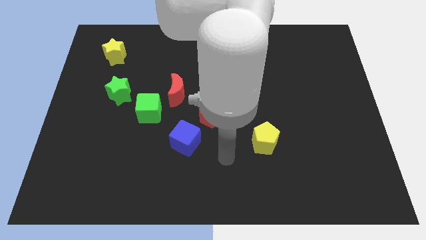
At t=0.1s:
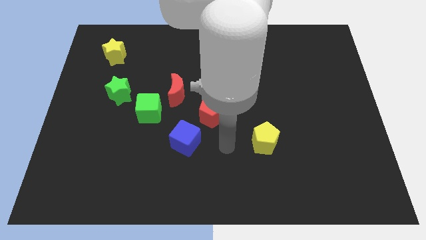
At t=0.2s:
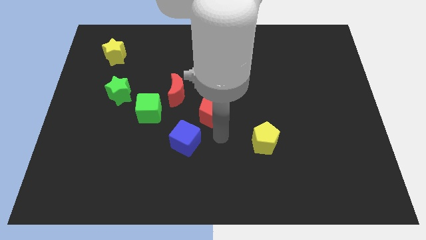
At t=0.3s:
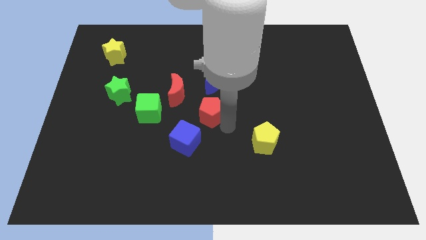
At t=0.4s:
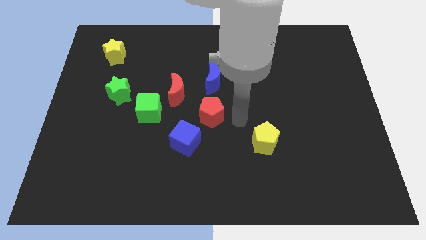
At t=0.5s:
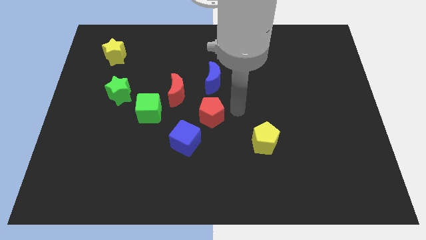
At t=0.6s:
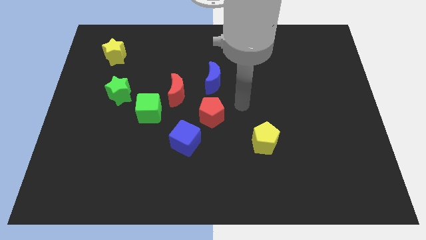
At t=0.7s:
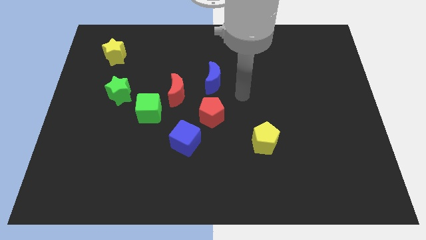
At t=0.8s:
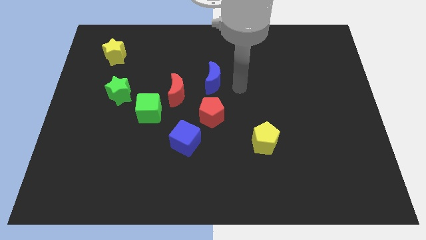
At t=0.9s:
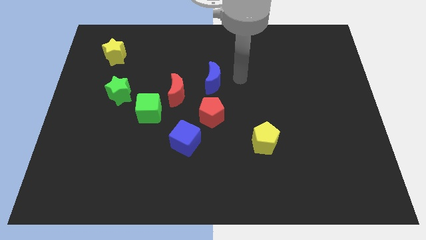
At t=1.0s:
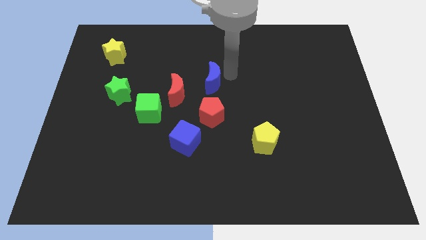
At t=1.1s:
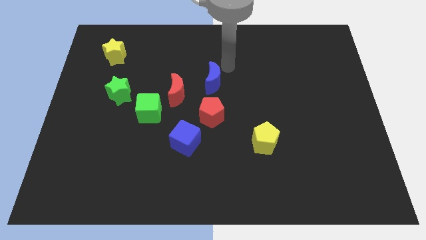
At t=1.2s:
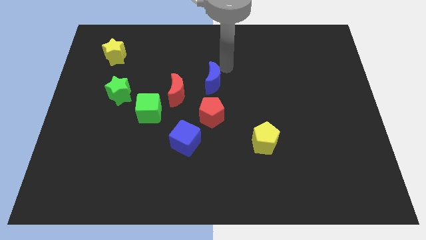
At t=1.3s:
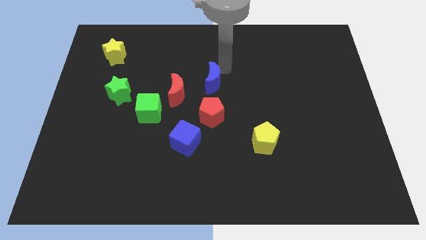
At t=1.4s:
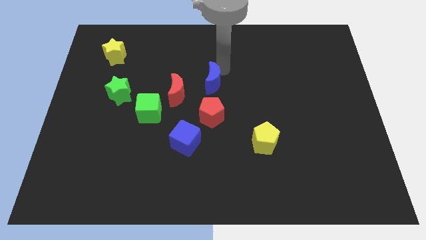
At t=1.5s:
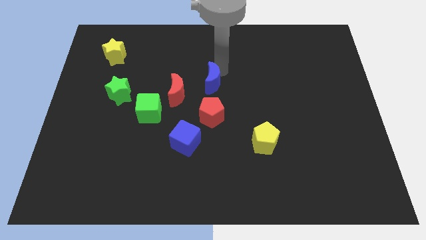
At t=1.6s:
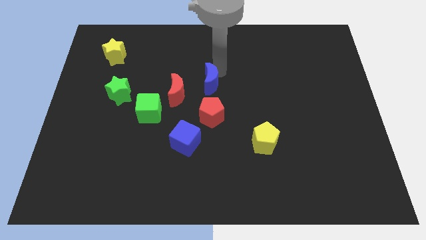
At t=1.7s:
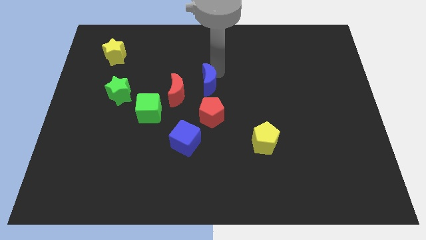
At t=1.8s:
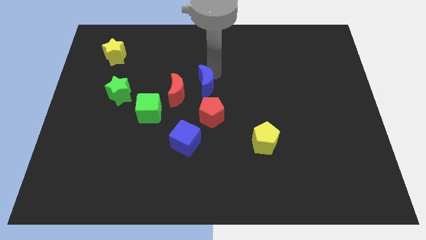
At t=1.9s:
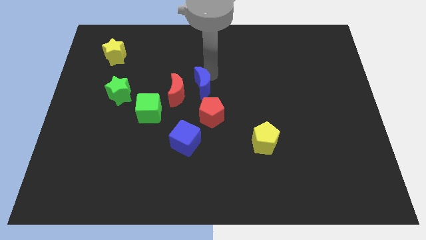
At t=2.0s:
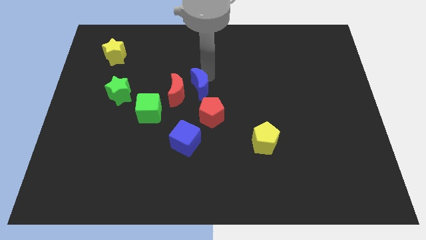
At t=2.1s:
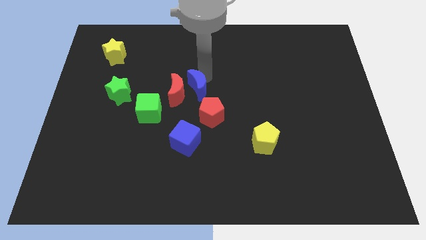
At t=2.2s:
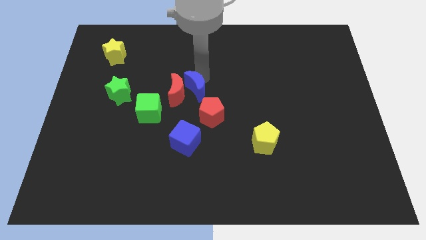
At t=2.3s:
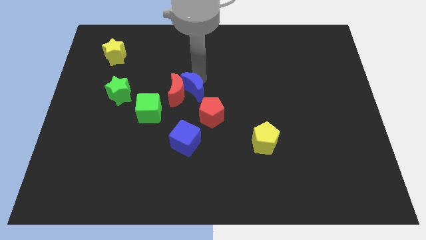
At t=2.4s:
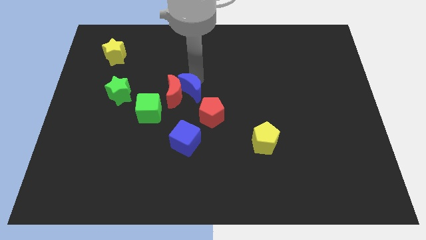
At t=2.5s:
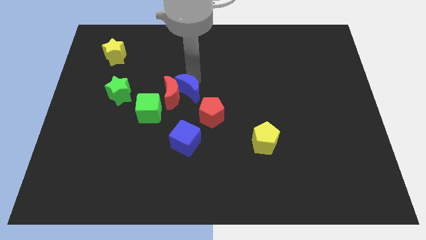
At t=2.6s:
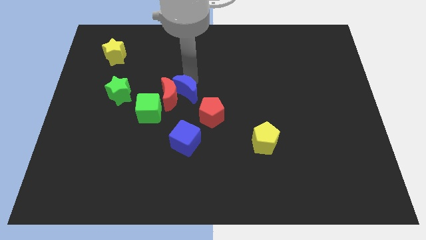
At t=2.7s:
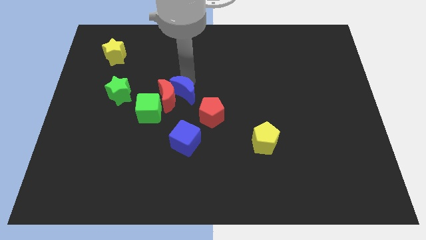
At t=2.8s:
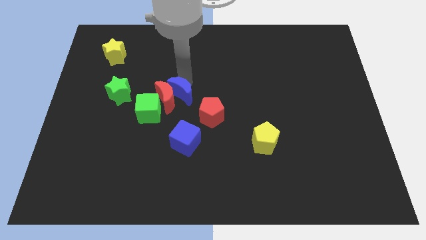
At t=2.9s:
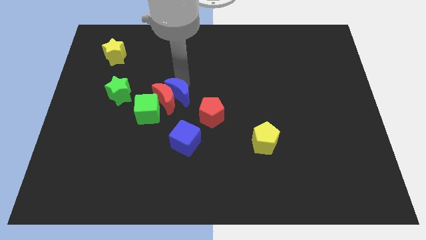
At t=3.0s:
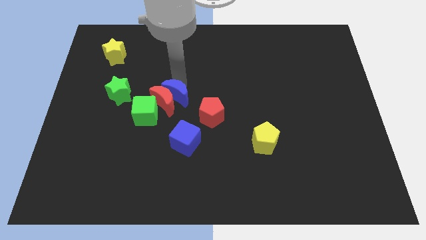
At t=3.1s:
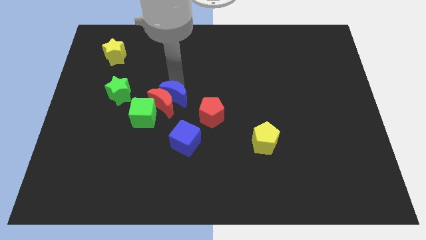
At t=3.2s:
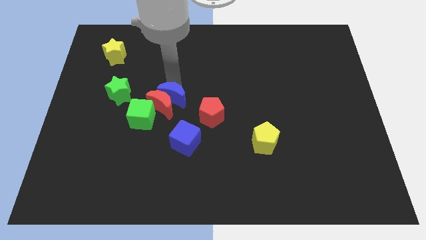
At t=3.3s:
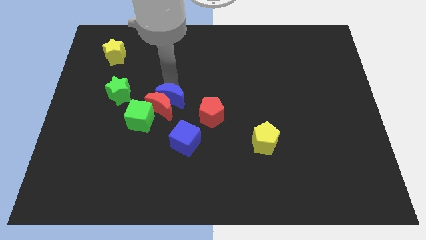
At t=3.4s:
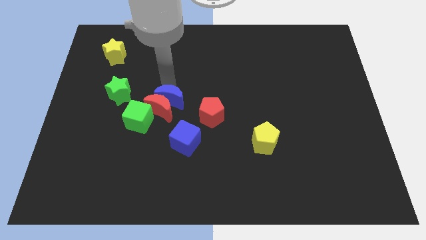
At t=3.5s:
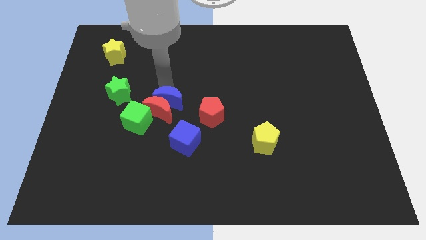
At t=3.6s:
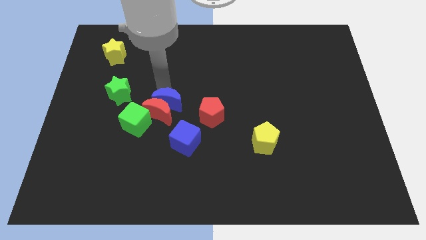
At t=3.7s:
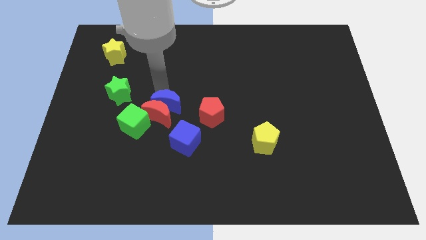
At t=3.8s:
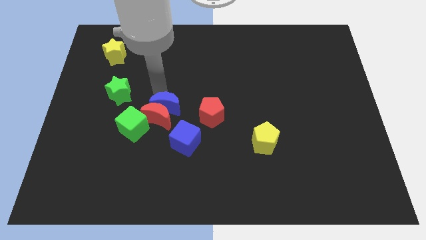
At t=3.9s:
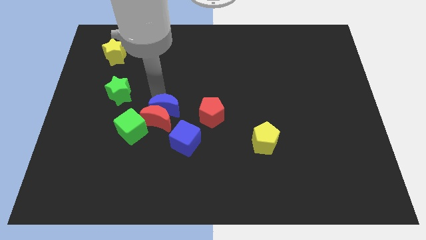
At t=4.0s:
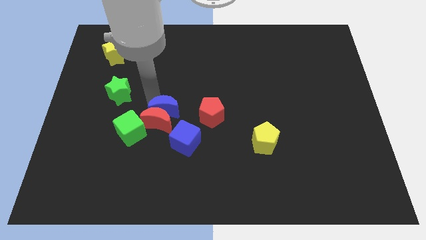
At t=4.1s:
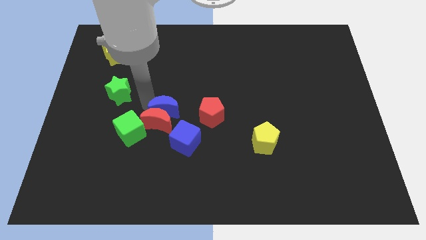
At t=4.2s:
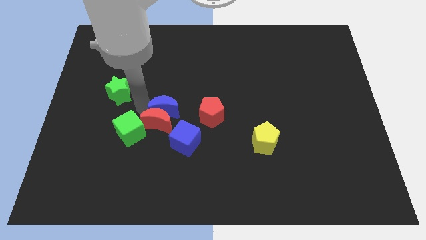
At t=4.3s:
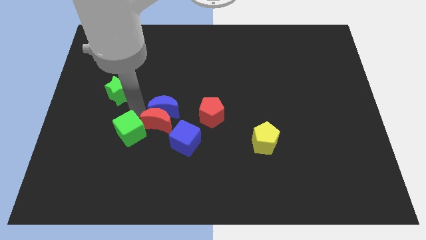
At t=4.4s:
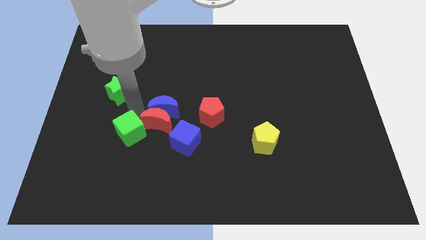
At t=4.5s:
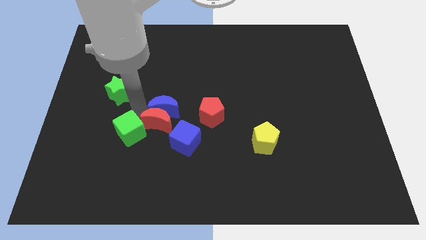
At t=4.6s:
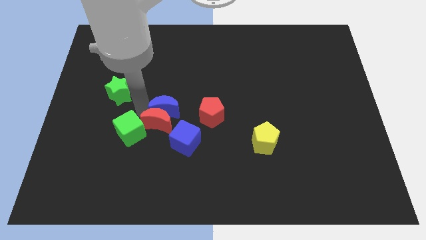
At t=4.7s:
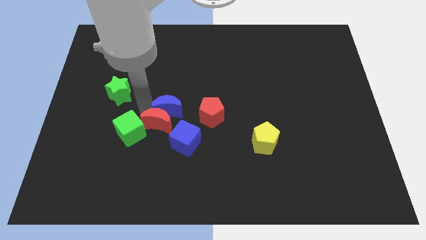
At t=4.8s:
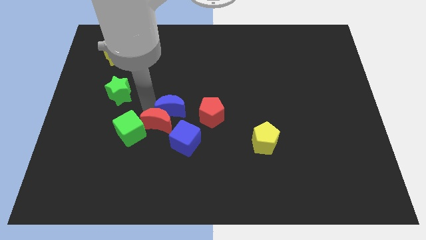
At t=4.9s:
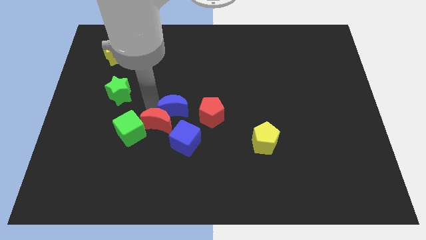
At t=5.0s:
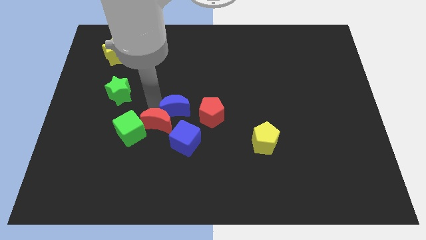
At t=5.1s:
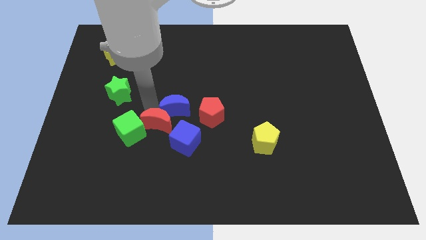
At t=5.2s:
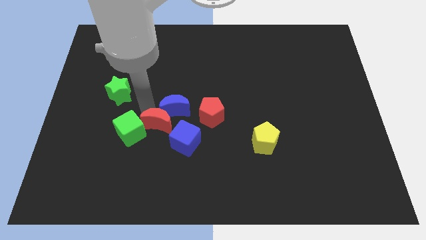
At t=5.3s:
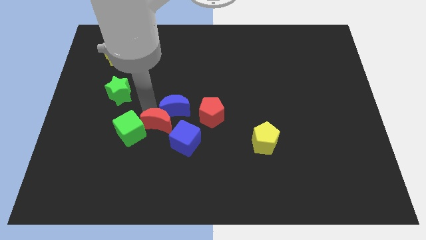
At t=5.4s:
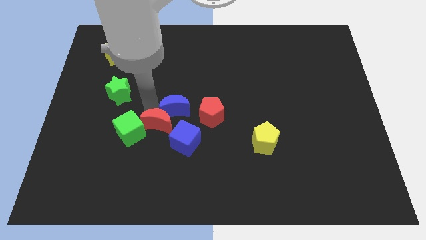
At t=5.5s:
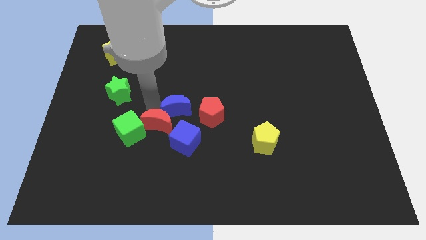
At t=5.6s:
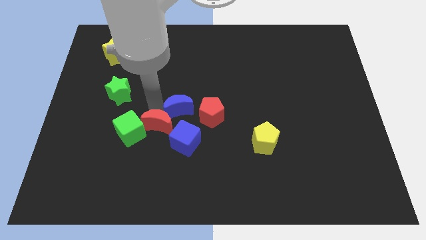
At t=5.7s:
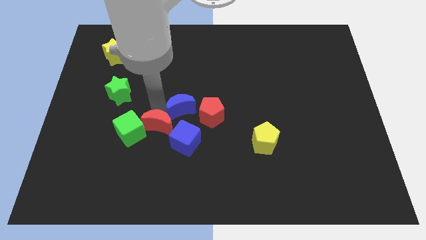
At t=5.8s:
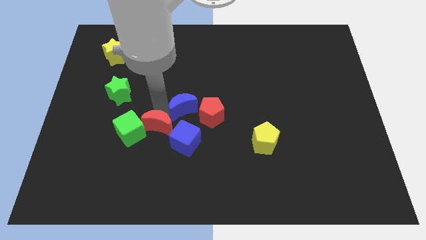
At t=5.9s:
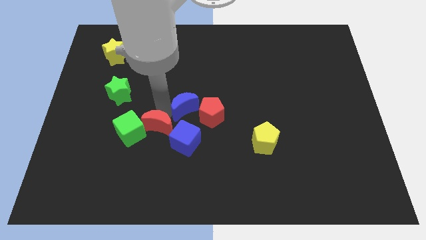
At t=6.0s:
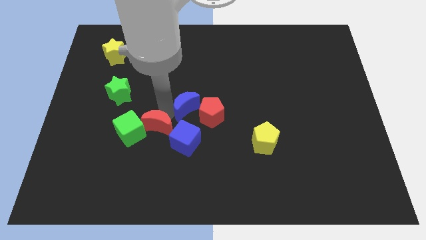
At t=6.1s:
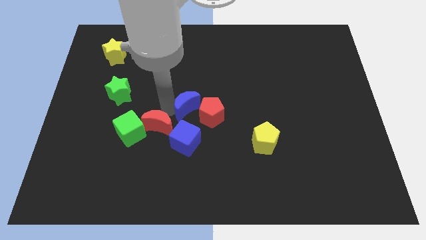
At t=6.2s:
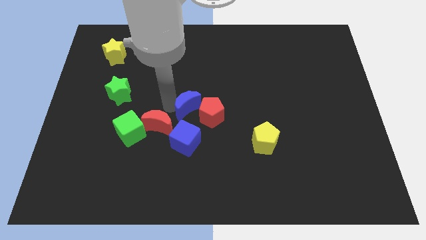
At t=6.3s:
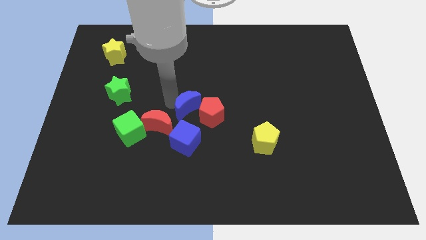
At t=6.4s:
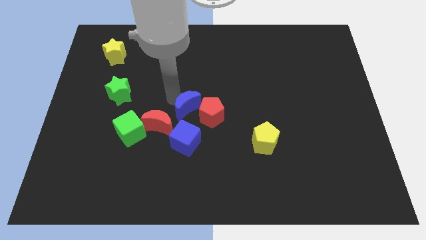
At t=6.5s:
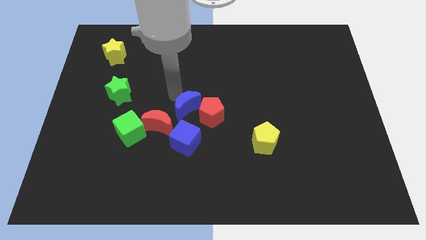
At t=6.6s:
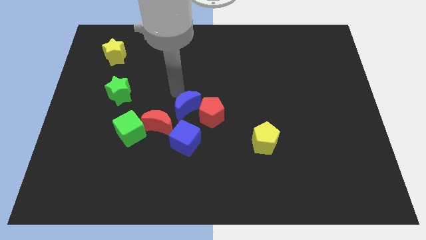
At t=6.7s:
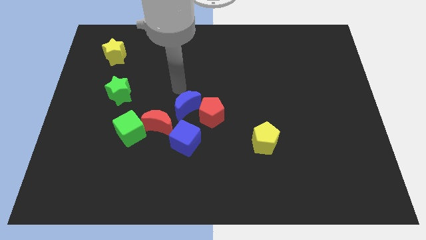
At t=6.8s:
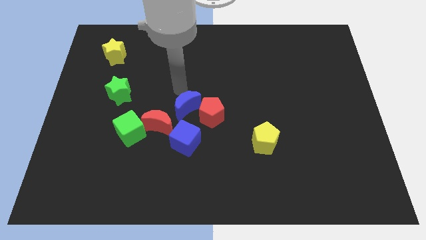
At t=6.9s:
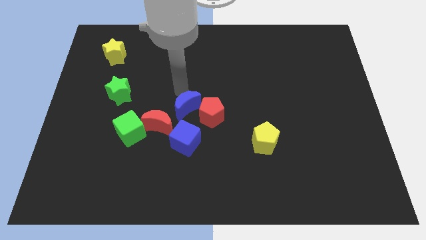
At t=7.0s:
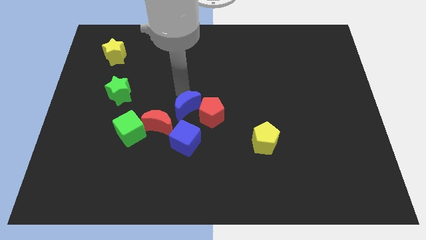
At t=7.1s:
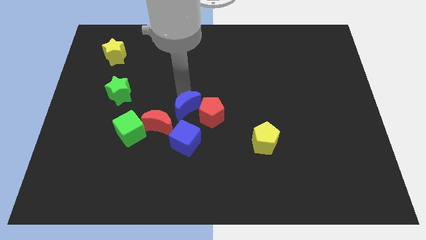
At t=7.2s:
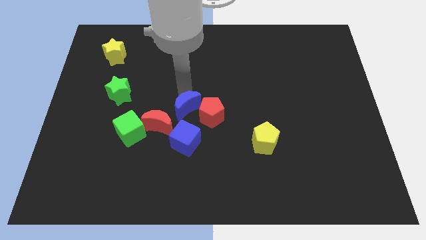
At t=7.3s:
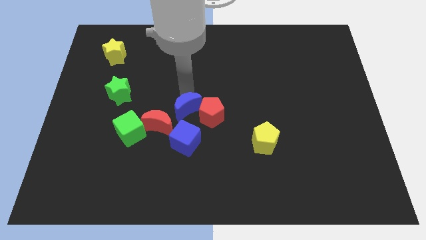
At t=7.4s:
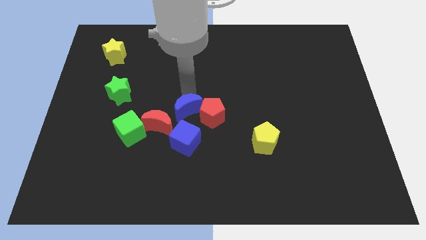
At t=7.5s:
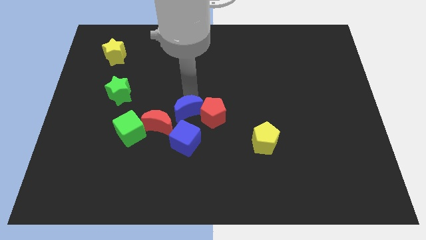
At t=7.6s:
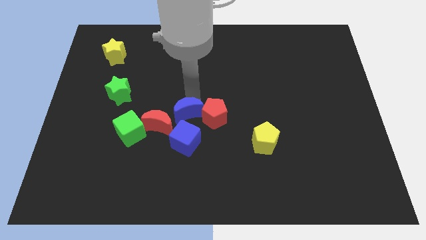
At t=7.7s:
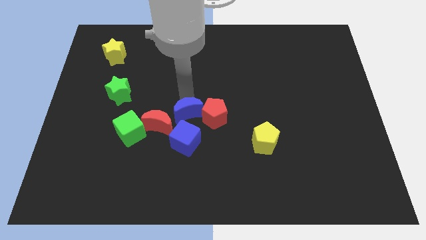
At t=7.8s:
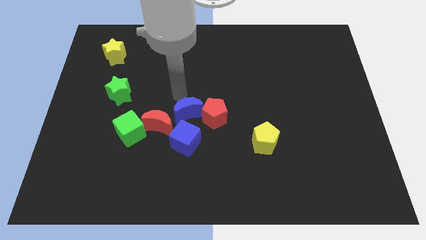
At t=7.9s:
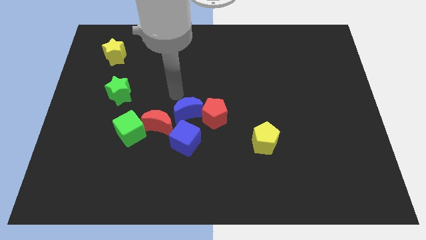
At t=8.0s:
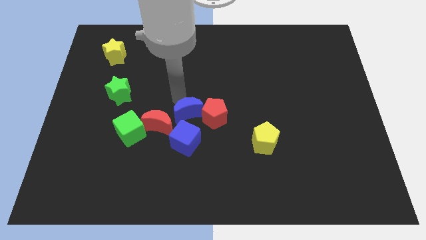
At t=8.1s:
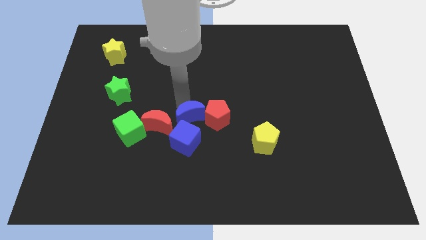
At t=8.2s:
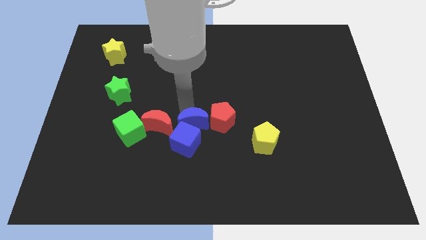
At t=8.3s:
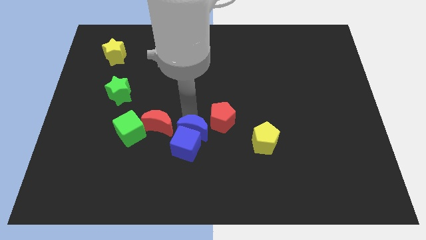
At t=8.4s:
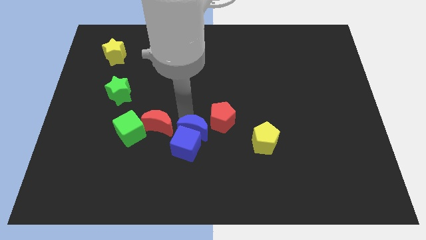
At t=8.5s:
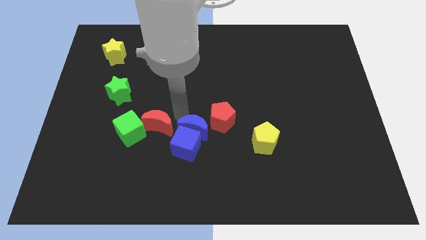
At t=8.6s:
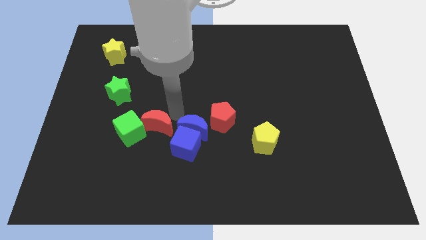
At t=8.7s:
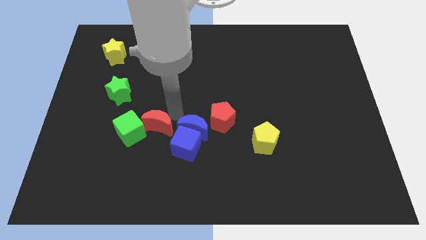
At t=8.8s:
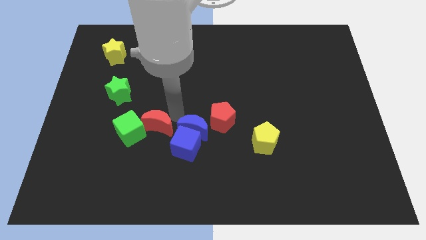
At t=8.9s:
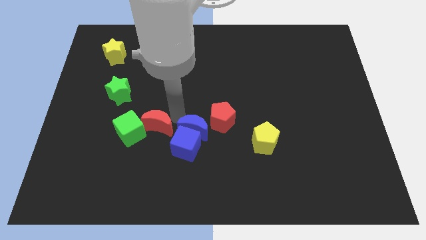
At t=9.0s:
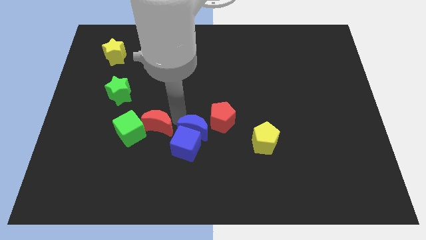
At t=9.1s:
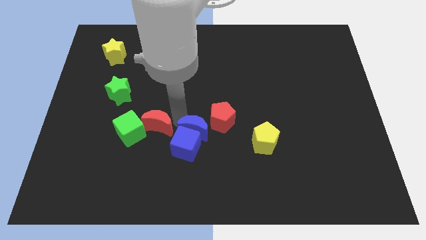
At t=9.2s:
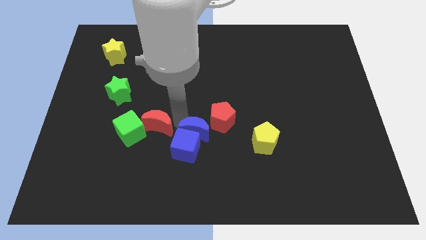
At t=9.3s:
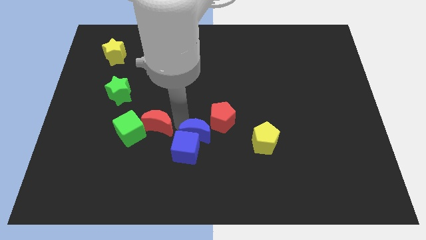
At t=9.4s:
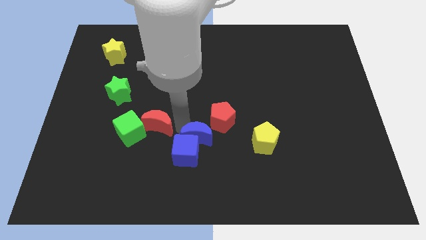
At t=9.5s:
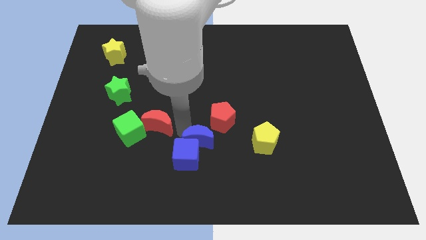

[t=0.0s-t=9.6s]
put the blue moon to the bottom side of the red pentagon
